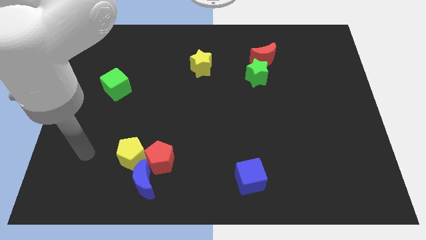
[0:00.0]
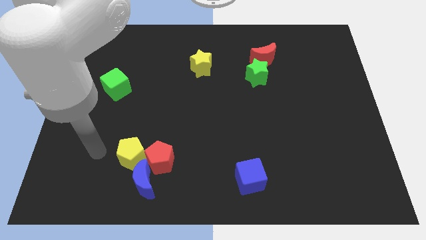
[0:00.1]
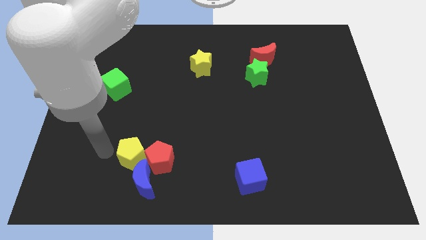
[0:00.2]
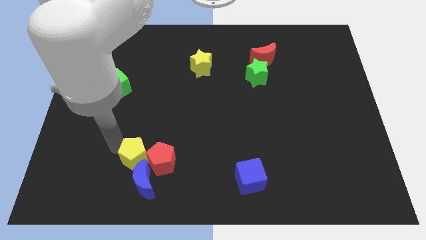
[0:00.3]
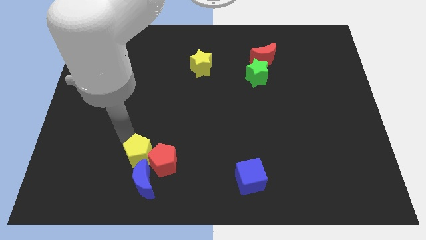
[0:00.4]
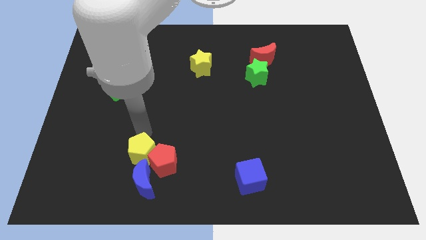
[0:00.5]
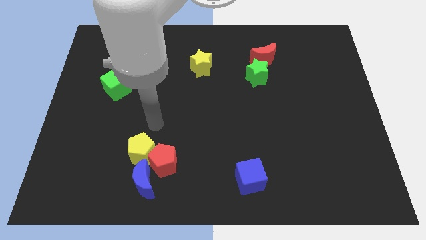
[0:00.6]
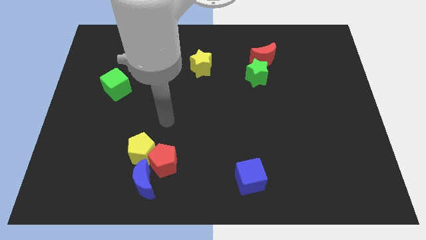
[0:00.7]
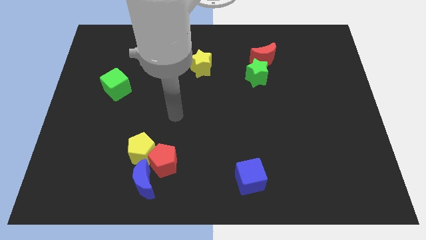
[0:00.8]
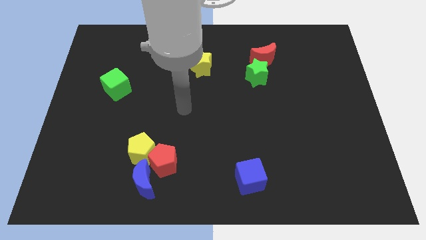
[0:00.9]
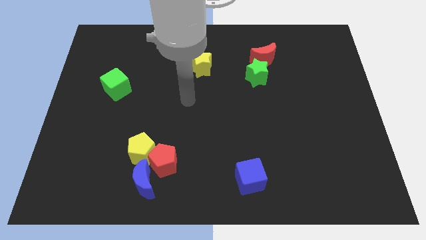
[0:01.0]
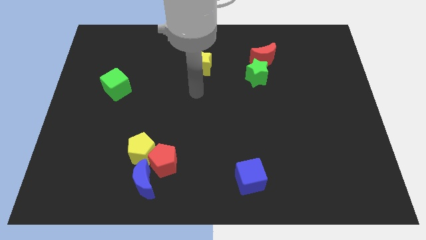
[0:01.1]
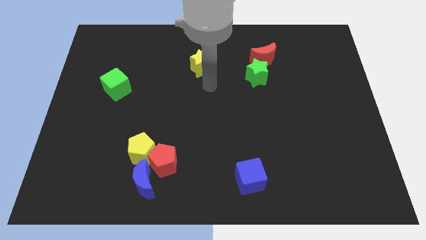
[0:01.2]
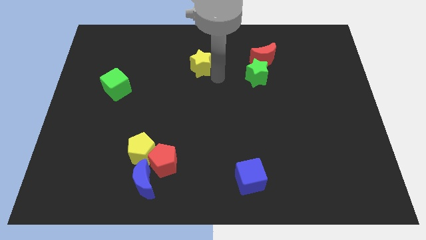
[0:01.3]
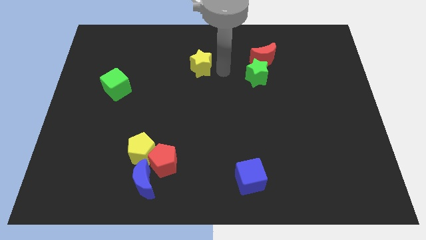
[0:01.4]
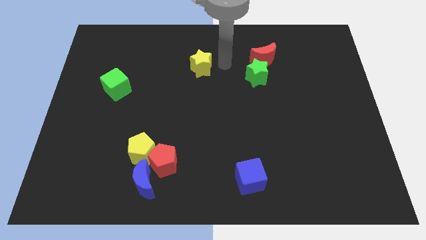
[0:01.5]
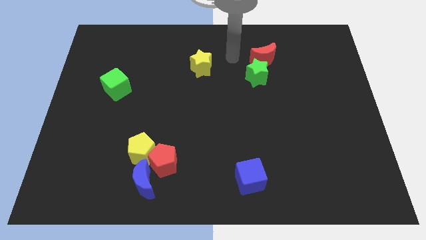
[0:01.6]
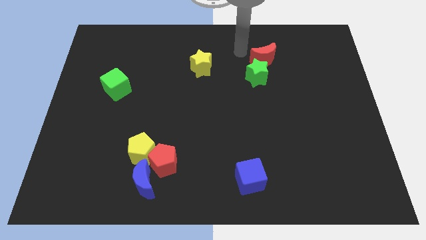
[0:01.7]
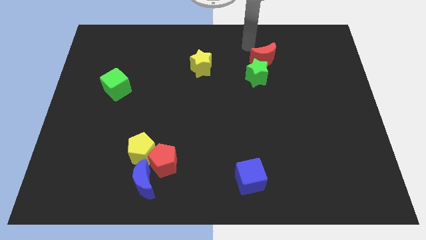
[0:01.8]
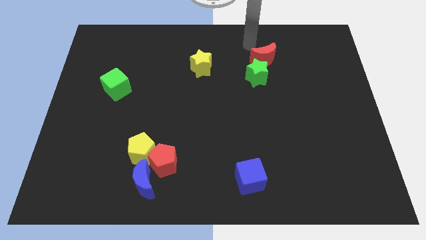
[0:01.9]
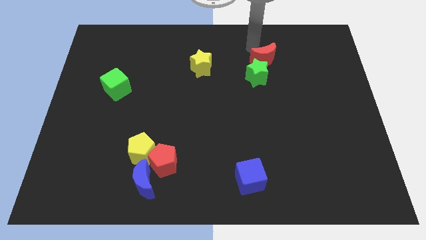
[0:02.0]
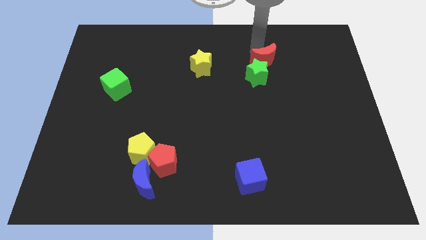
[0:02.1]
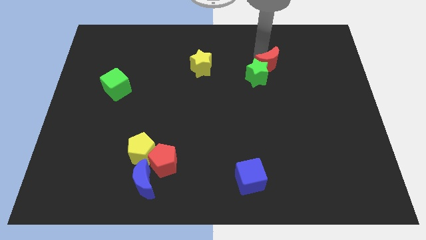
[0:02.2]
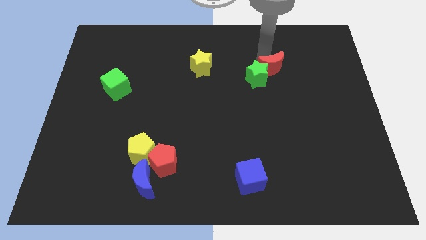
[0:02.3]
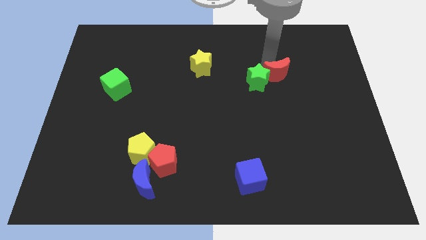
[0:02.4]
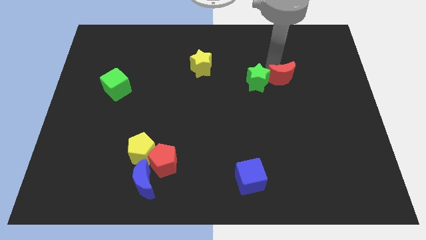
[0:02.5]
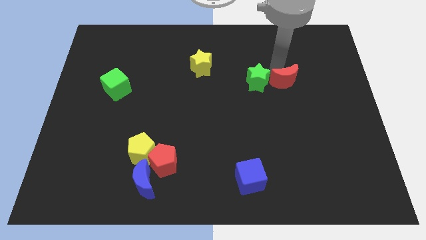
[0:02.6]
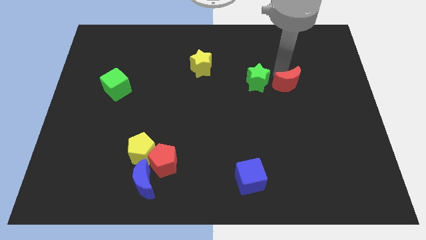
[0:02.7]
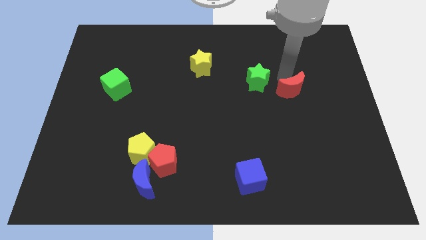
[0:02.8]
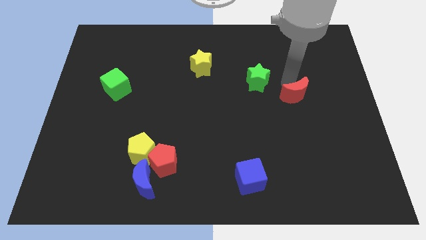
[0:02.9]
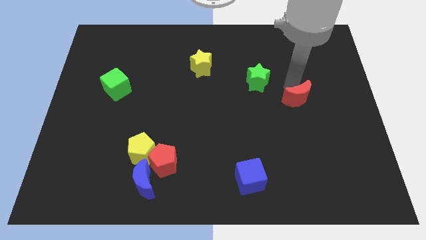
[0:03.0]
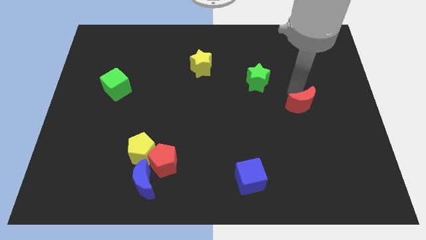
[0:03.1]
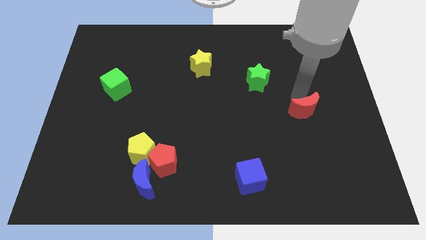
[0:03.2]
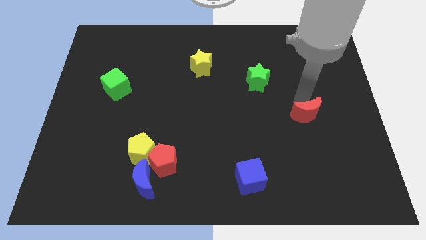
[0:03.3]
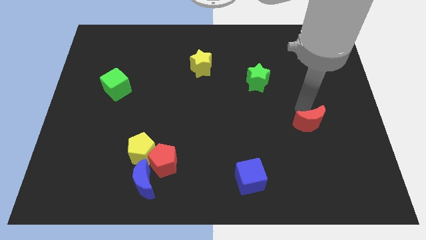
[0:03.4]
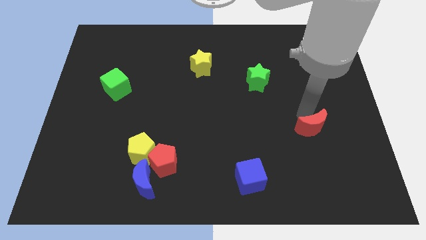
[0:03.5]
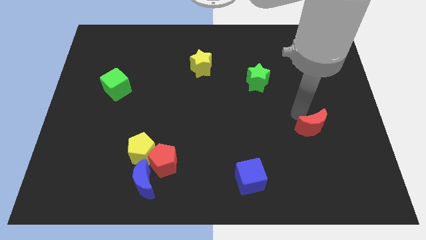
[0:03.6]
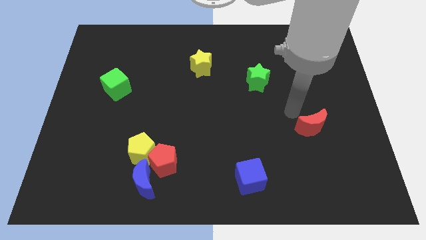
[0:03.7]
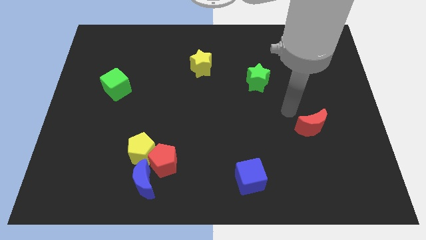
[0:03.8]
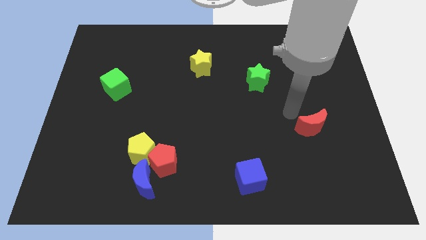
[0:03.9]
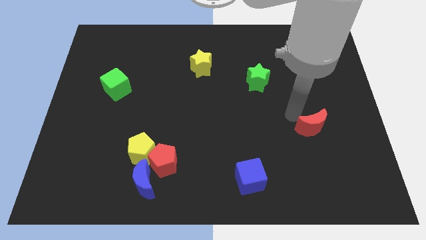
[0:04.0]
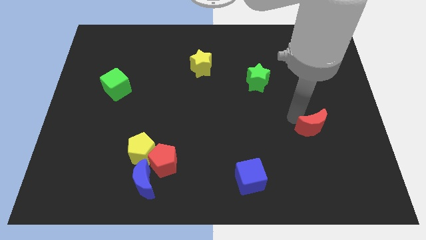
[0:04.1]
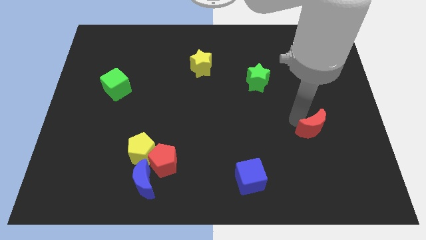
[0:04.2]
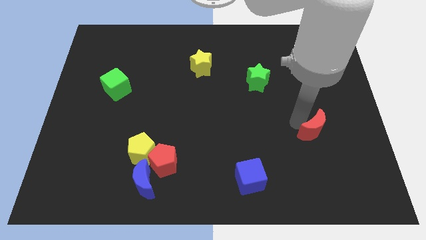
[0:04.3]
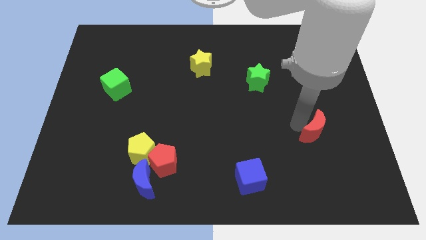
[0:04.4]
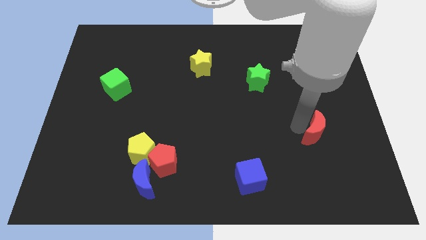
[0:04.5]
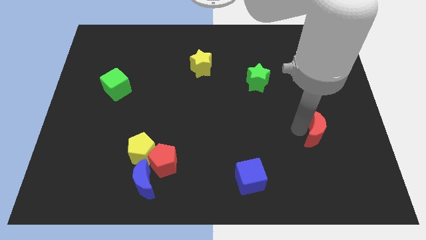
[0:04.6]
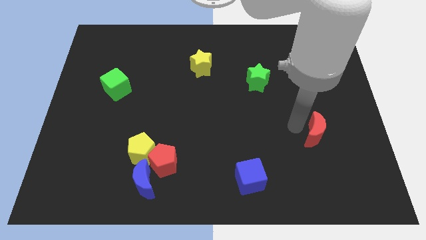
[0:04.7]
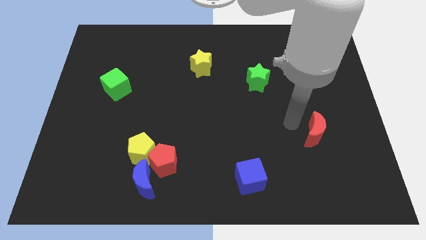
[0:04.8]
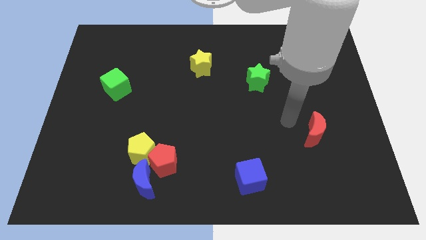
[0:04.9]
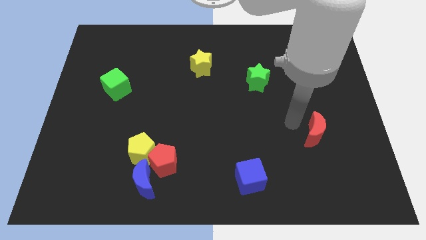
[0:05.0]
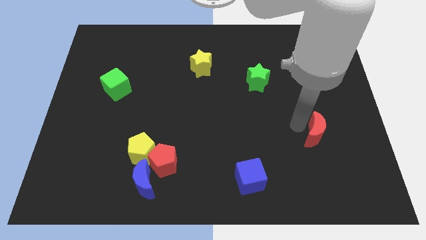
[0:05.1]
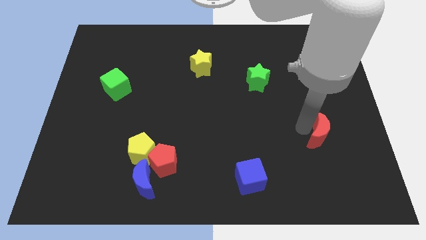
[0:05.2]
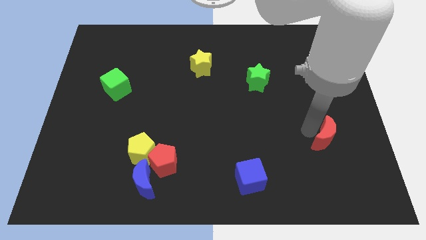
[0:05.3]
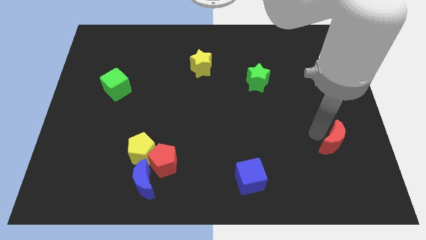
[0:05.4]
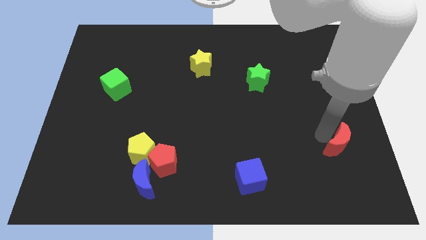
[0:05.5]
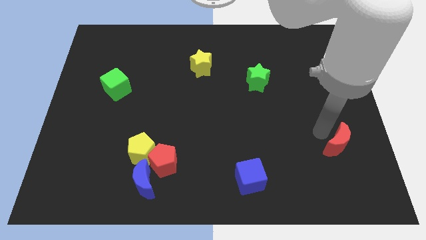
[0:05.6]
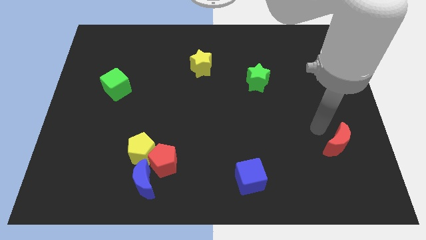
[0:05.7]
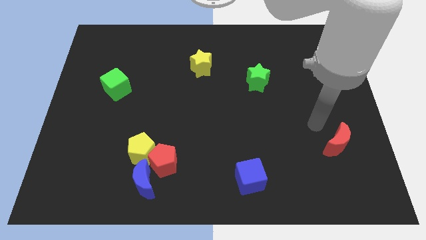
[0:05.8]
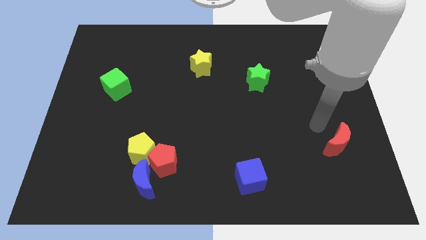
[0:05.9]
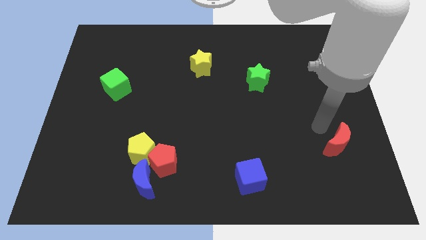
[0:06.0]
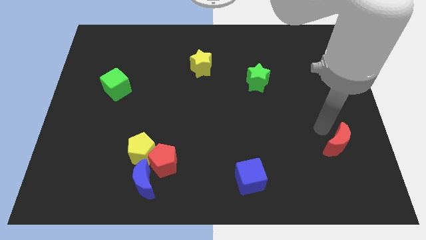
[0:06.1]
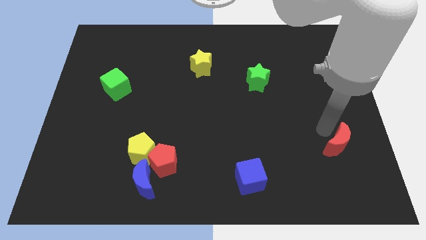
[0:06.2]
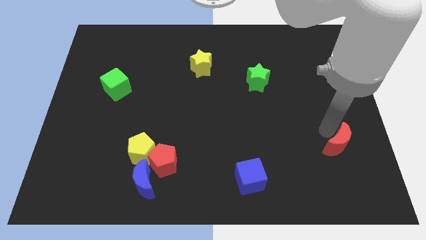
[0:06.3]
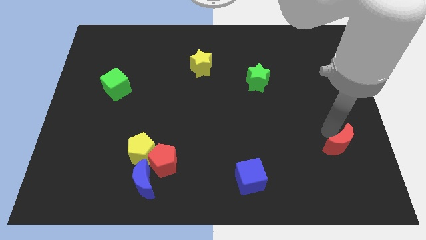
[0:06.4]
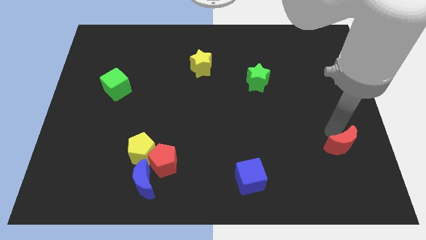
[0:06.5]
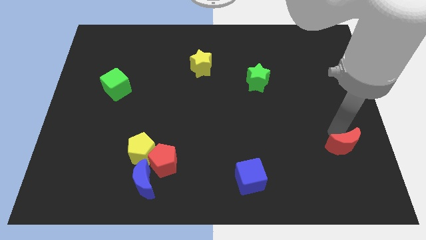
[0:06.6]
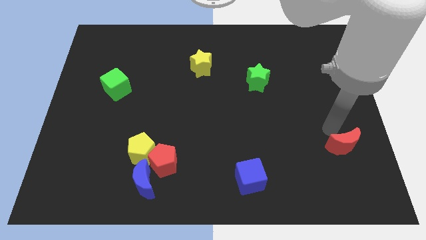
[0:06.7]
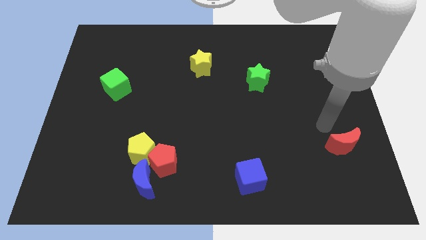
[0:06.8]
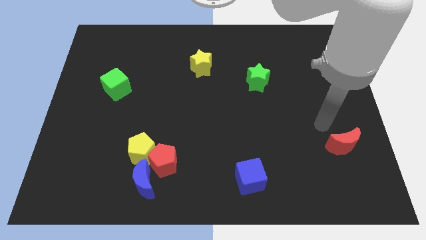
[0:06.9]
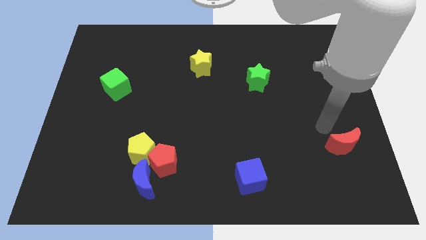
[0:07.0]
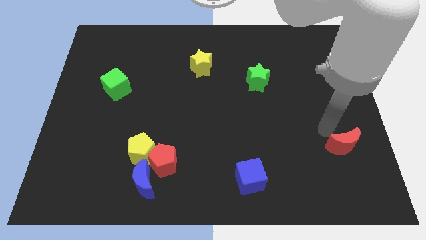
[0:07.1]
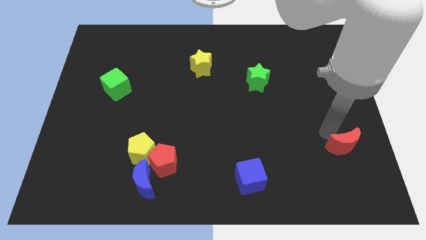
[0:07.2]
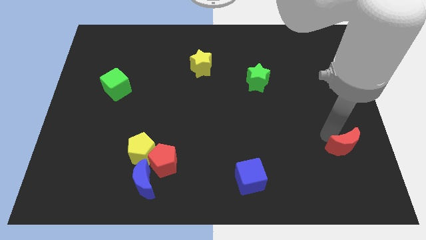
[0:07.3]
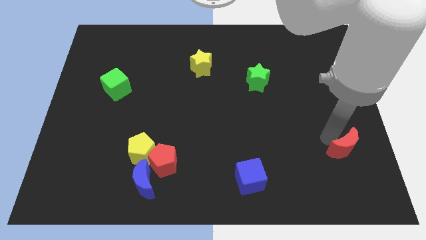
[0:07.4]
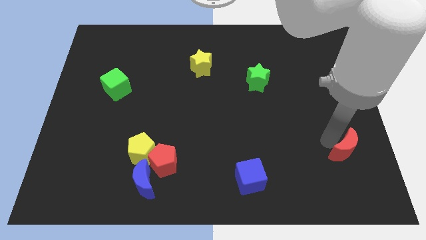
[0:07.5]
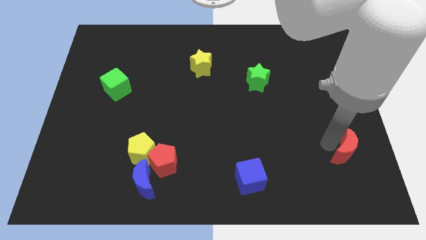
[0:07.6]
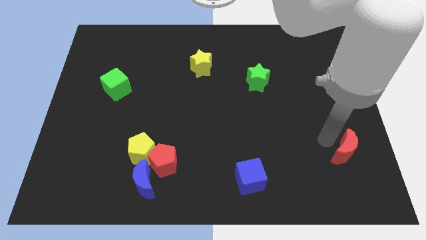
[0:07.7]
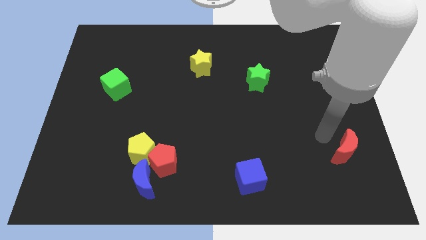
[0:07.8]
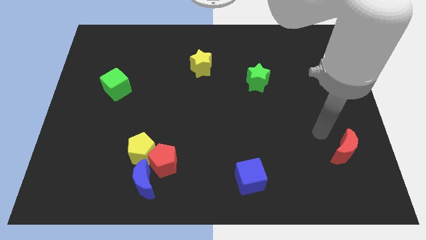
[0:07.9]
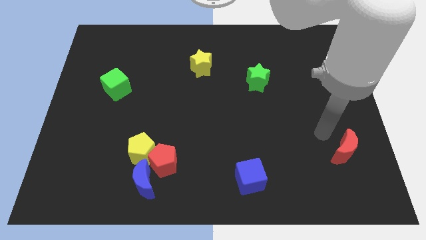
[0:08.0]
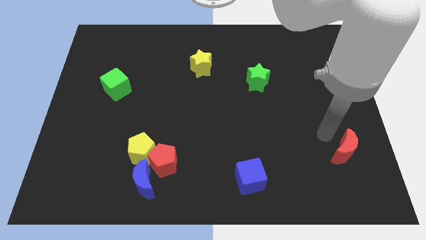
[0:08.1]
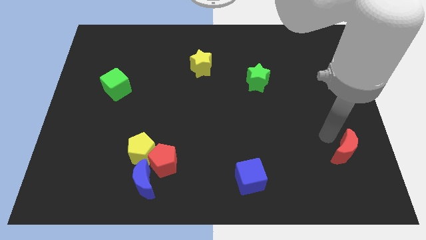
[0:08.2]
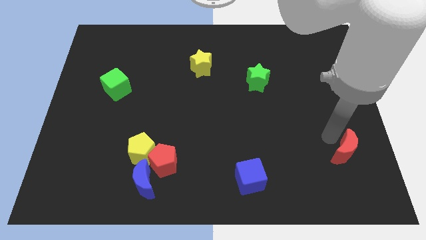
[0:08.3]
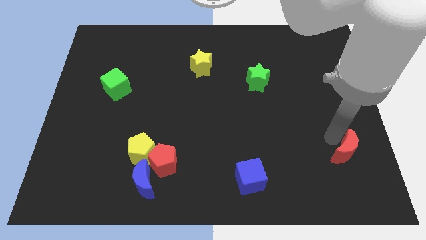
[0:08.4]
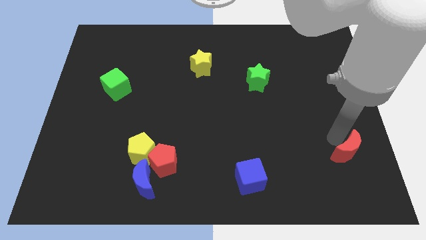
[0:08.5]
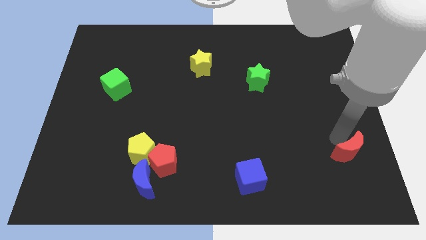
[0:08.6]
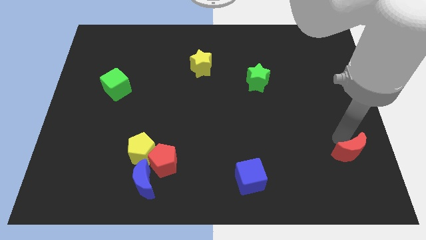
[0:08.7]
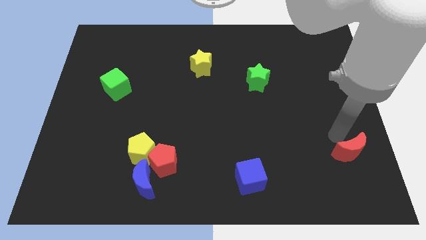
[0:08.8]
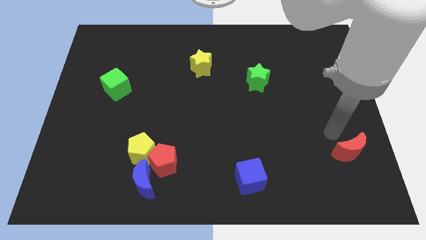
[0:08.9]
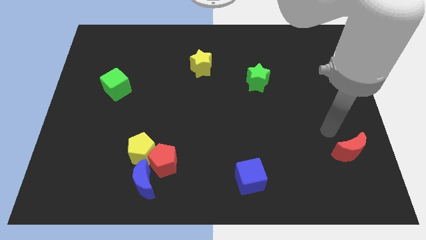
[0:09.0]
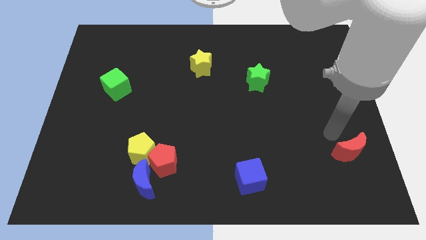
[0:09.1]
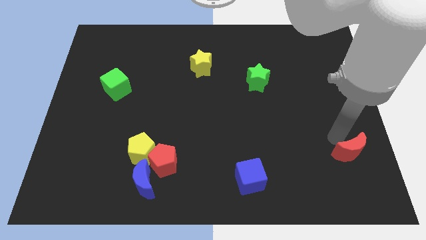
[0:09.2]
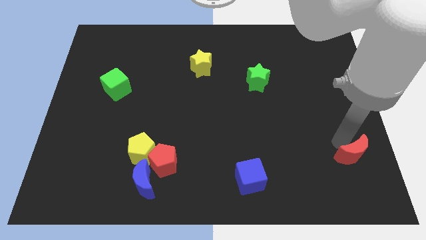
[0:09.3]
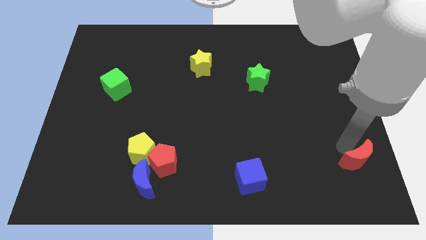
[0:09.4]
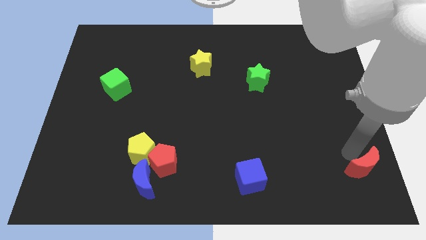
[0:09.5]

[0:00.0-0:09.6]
move the red moon to the bottom right of the board
